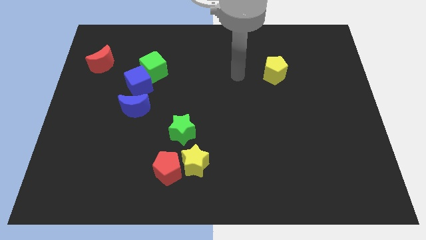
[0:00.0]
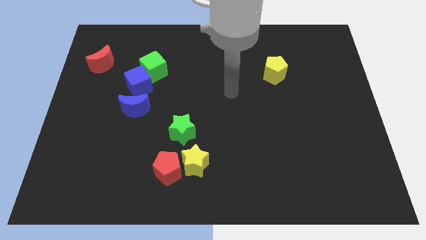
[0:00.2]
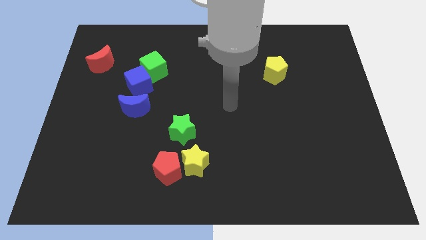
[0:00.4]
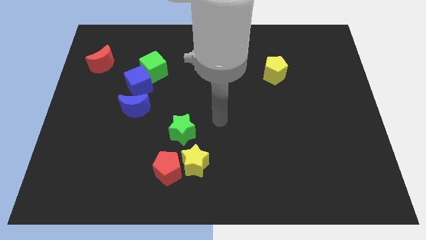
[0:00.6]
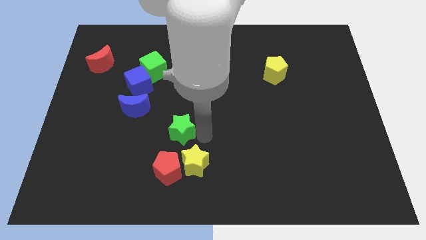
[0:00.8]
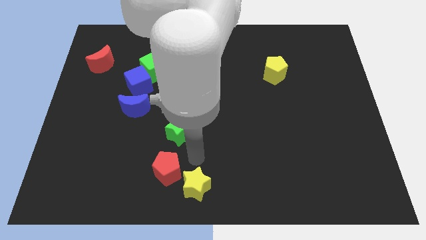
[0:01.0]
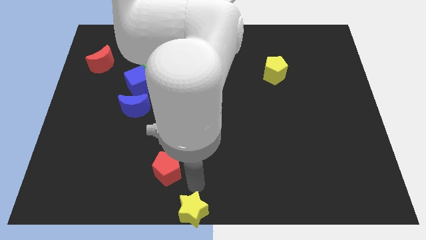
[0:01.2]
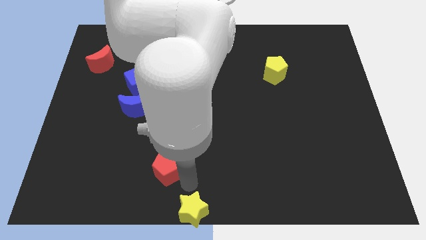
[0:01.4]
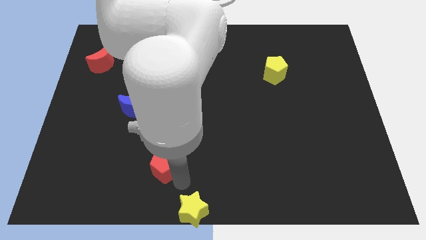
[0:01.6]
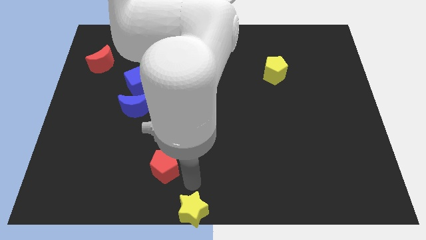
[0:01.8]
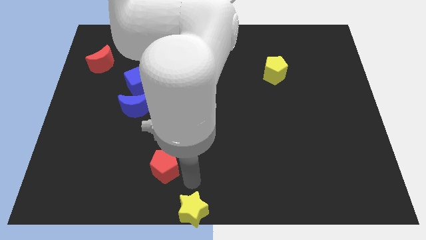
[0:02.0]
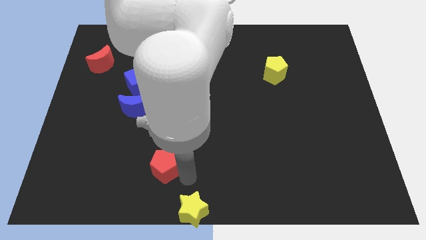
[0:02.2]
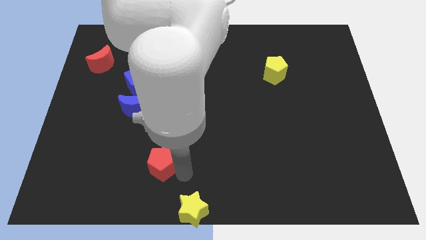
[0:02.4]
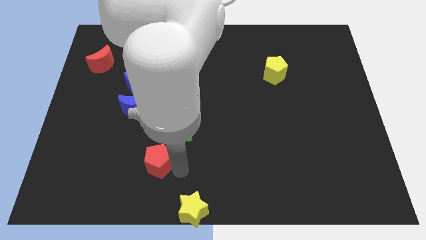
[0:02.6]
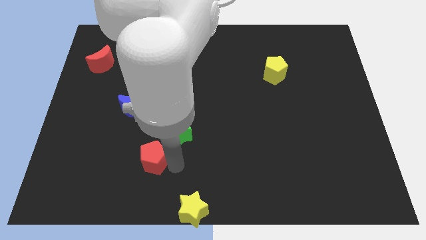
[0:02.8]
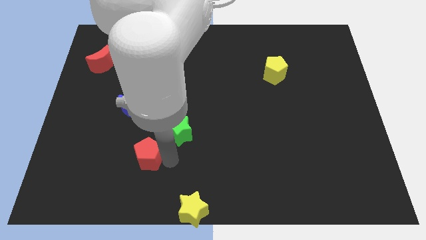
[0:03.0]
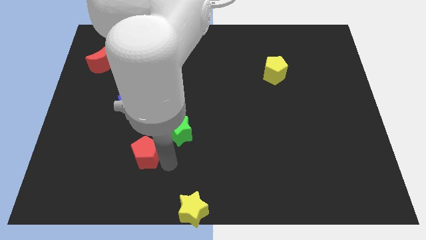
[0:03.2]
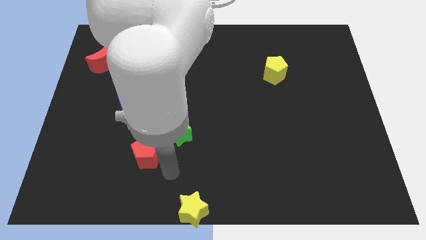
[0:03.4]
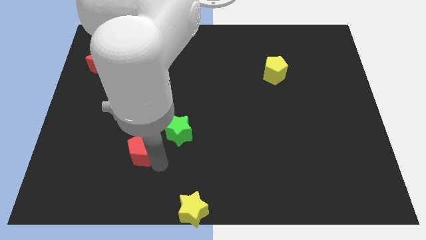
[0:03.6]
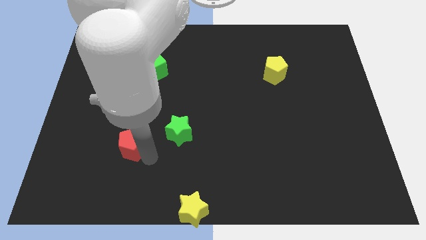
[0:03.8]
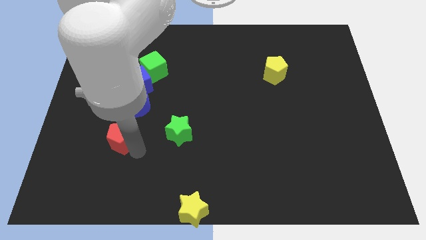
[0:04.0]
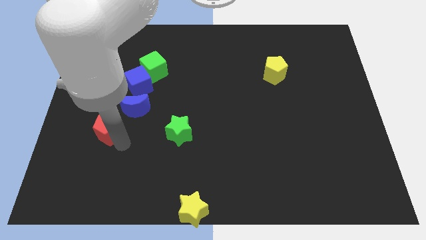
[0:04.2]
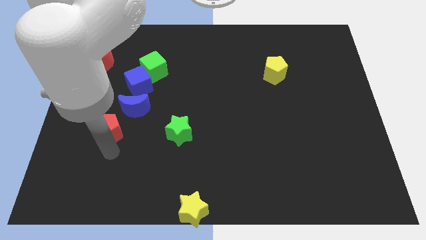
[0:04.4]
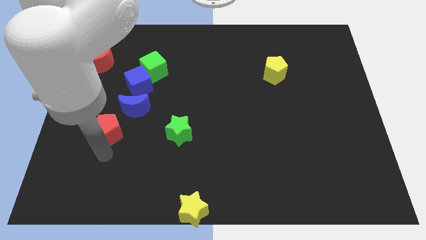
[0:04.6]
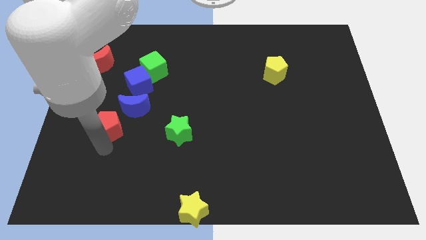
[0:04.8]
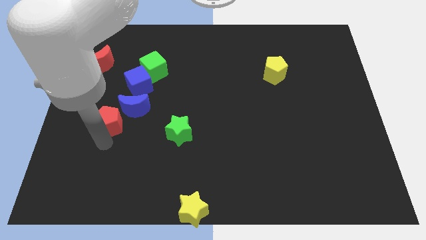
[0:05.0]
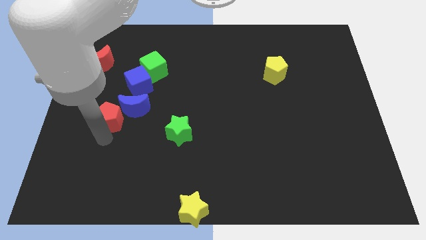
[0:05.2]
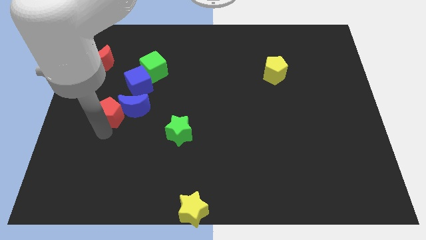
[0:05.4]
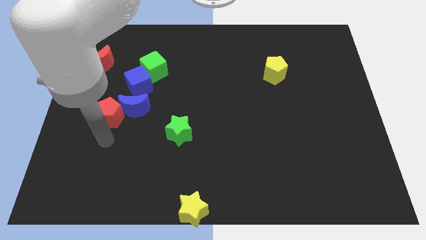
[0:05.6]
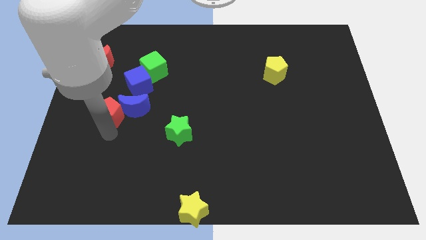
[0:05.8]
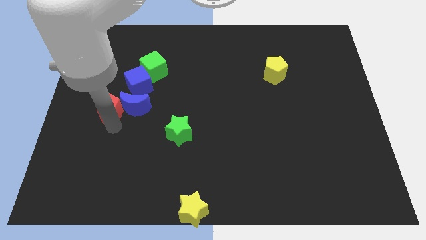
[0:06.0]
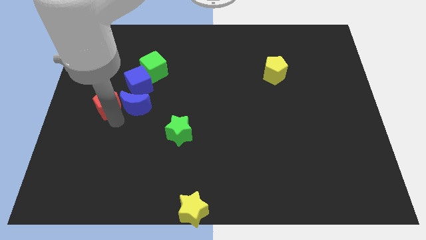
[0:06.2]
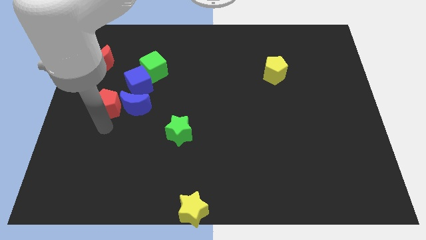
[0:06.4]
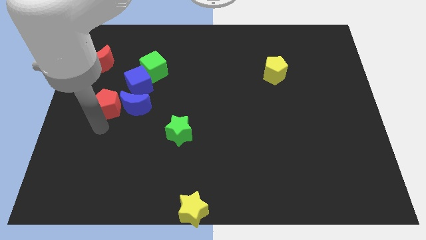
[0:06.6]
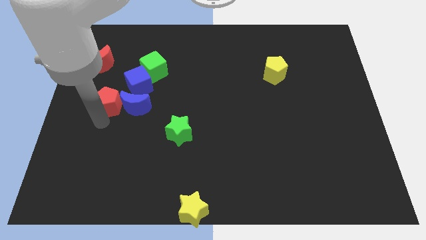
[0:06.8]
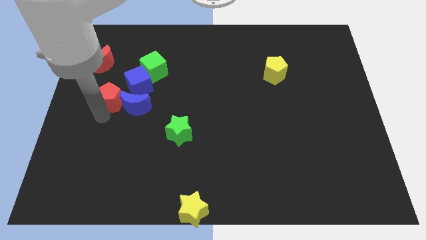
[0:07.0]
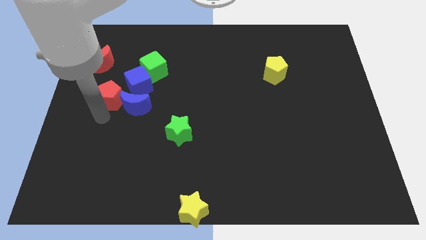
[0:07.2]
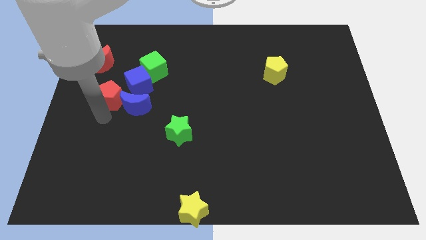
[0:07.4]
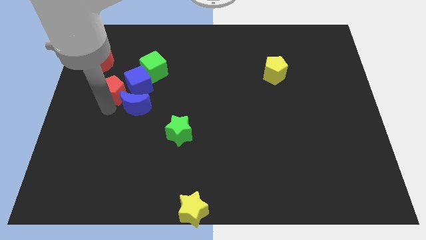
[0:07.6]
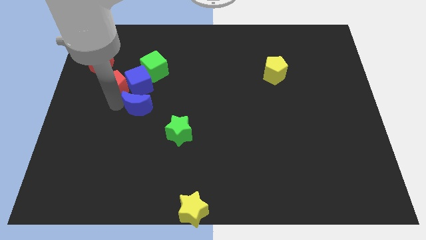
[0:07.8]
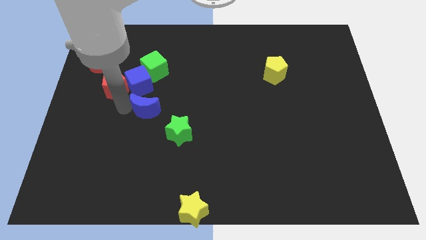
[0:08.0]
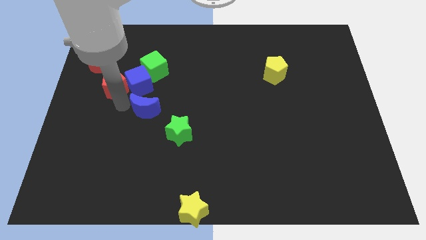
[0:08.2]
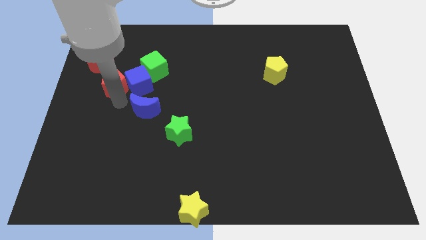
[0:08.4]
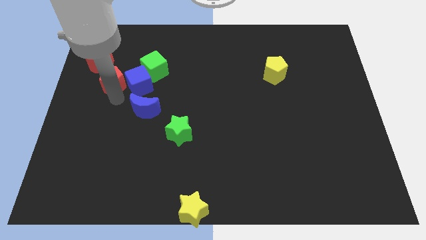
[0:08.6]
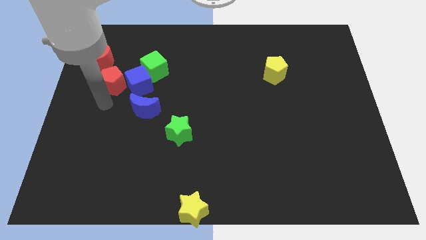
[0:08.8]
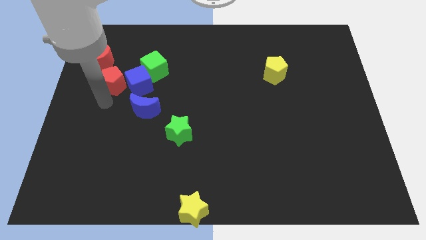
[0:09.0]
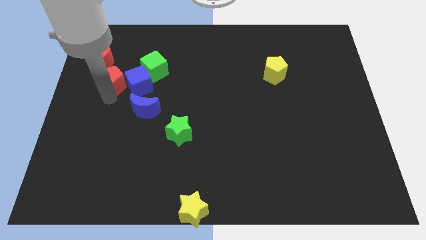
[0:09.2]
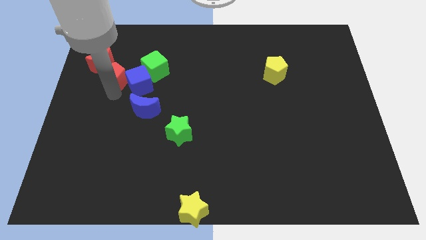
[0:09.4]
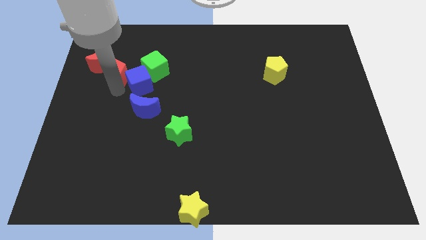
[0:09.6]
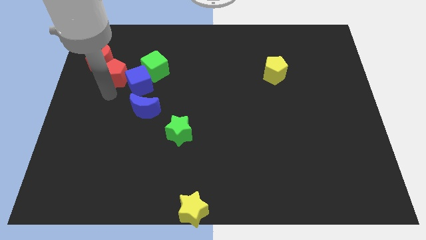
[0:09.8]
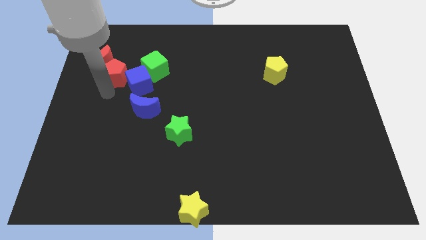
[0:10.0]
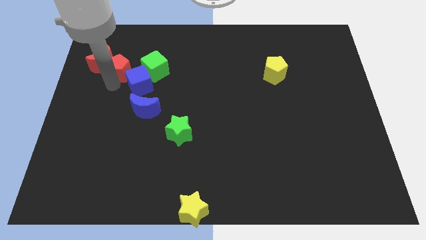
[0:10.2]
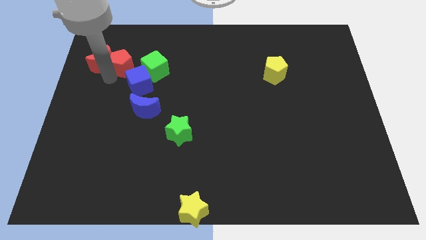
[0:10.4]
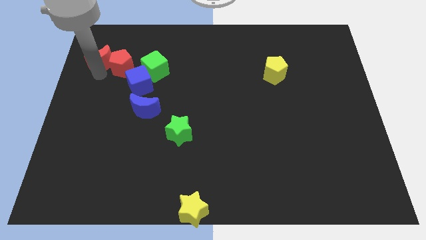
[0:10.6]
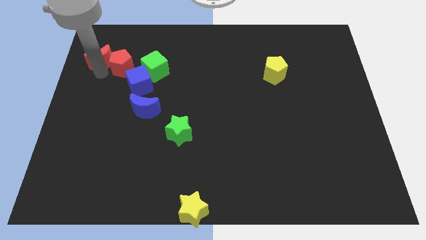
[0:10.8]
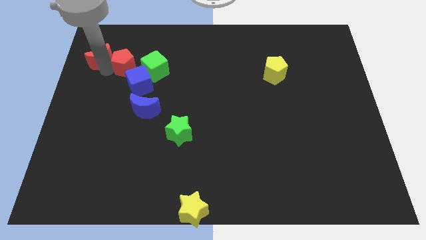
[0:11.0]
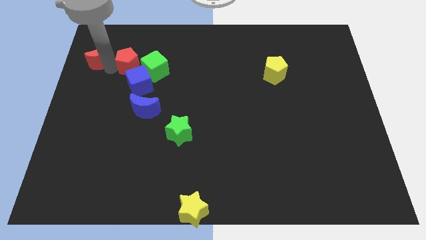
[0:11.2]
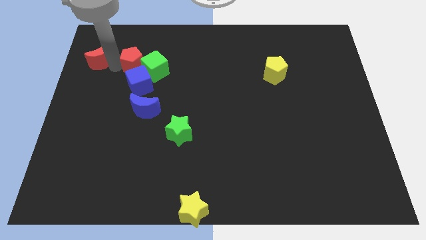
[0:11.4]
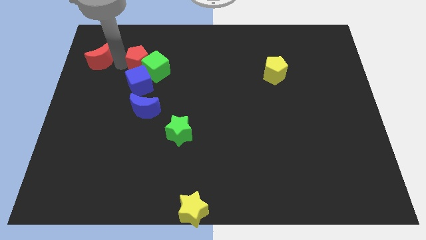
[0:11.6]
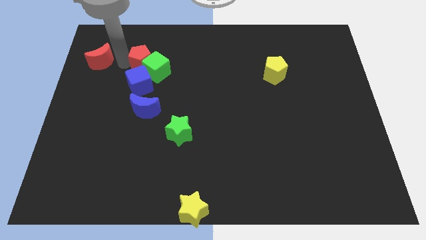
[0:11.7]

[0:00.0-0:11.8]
move the red pentagon to the top side of the blue moon
